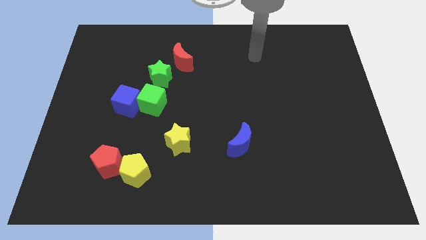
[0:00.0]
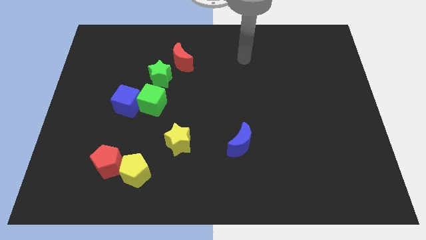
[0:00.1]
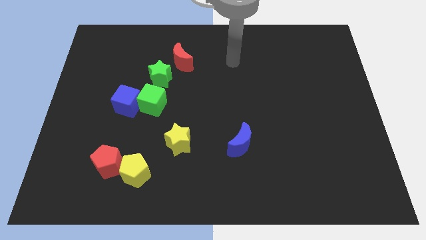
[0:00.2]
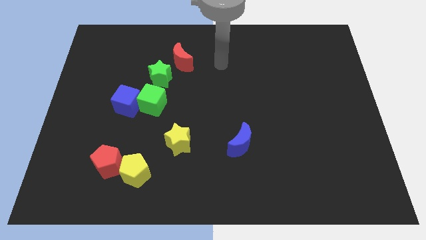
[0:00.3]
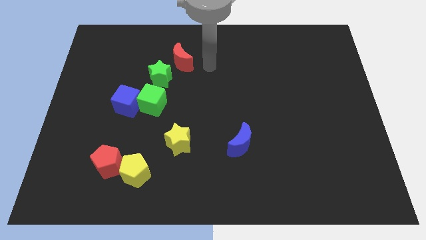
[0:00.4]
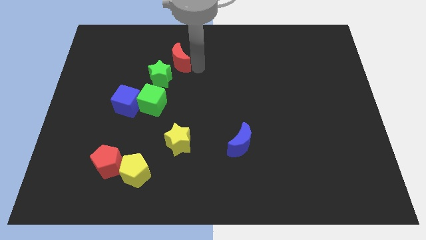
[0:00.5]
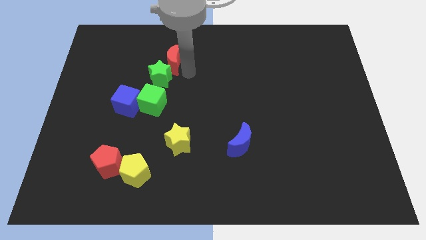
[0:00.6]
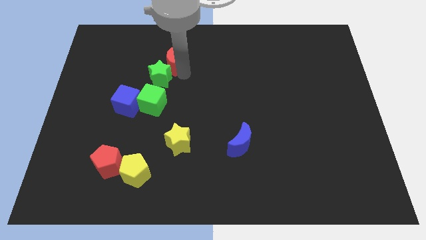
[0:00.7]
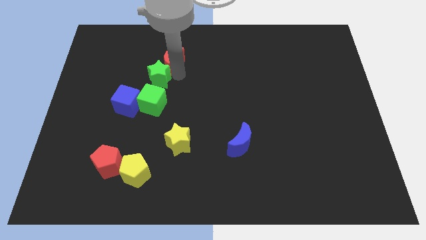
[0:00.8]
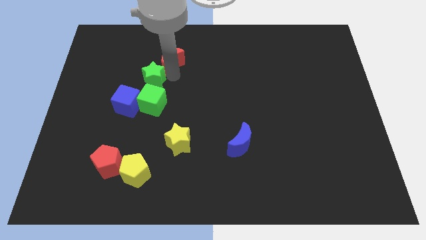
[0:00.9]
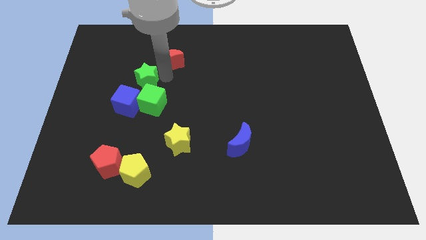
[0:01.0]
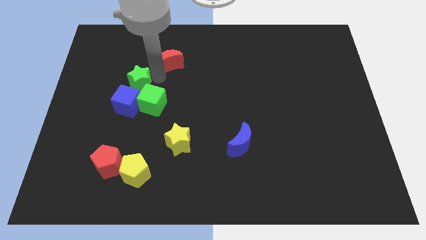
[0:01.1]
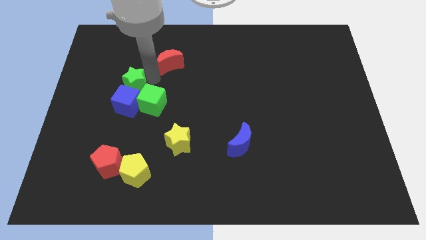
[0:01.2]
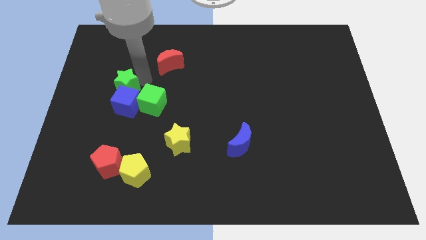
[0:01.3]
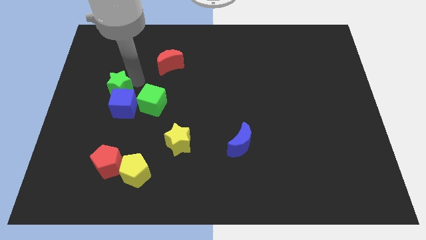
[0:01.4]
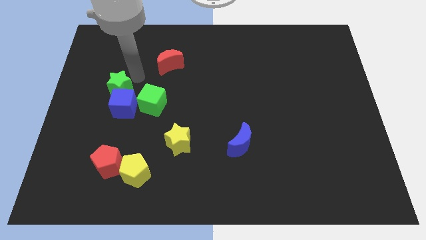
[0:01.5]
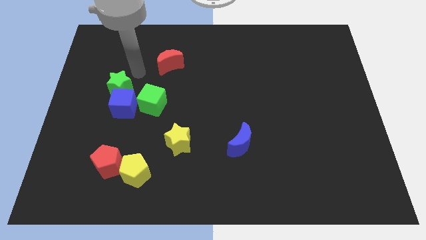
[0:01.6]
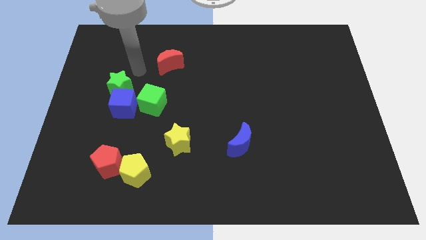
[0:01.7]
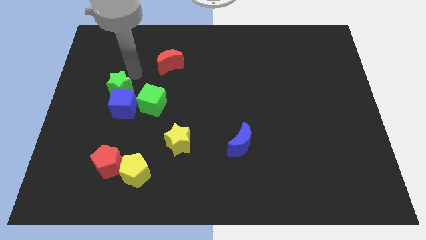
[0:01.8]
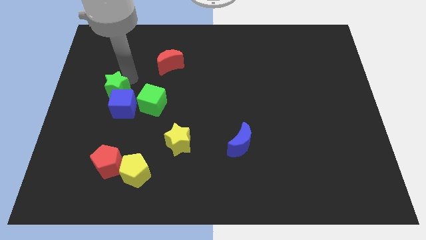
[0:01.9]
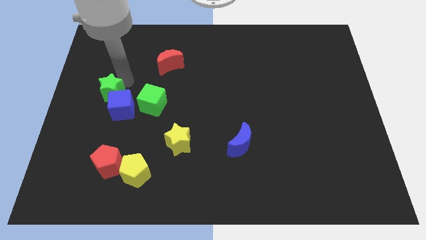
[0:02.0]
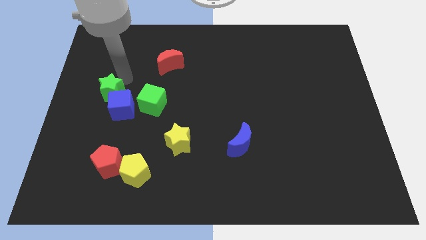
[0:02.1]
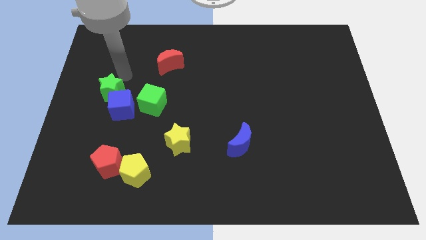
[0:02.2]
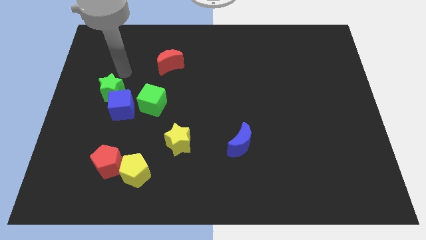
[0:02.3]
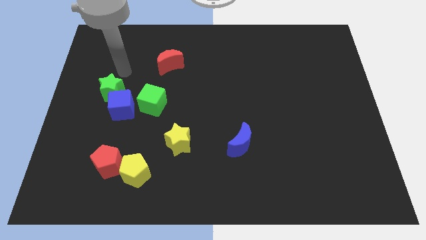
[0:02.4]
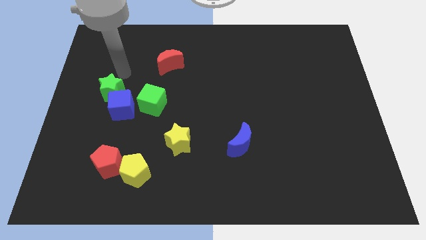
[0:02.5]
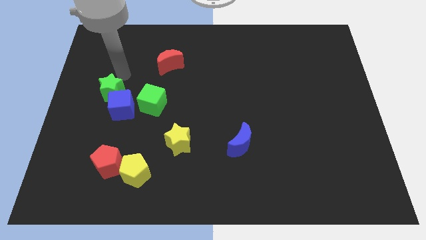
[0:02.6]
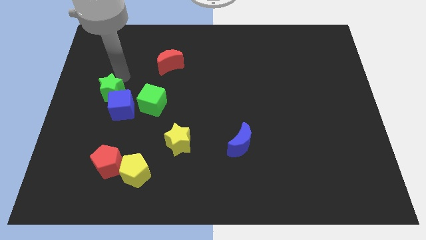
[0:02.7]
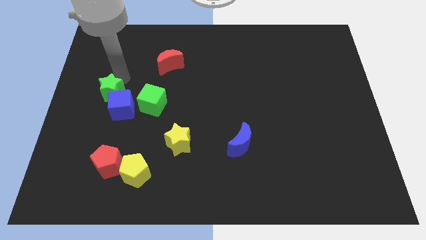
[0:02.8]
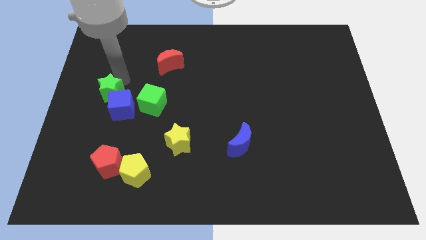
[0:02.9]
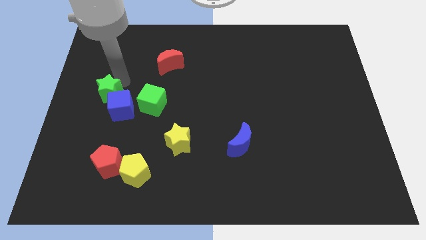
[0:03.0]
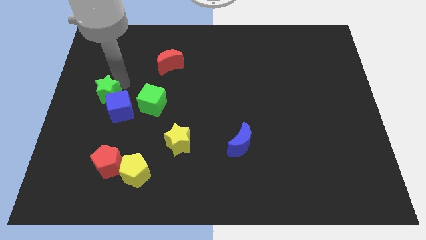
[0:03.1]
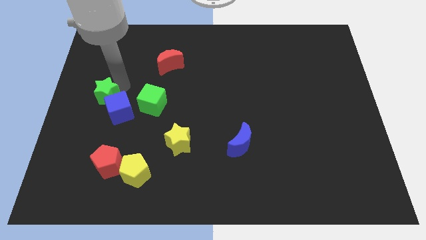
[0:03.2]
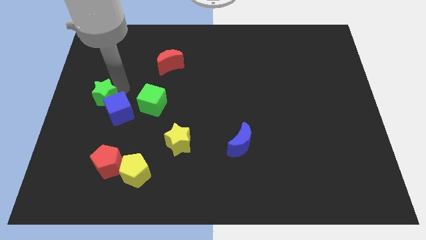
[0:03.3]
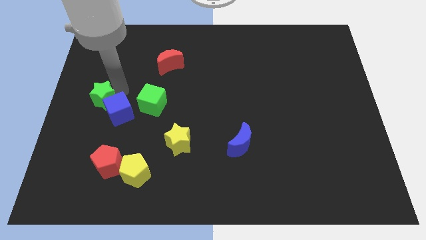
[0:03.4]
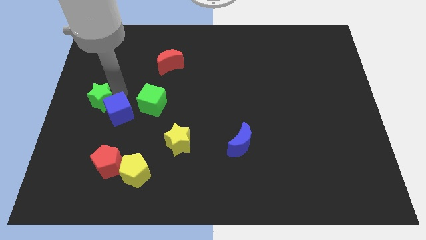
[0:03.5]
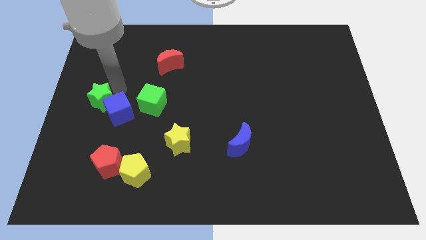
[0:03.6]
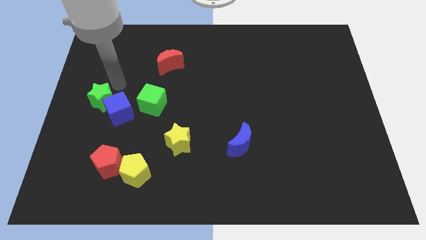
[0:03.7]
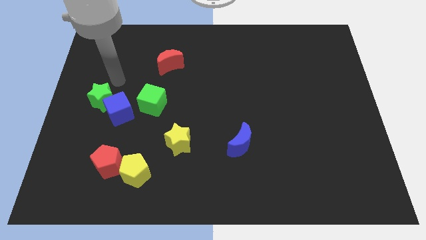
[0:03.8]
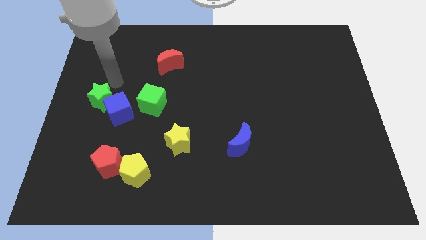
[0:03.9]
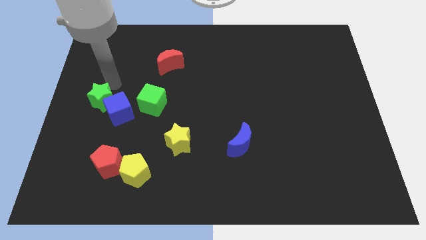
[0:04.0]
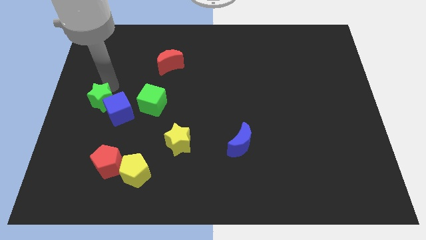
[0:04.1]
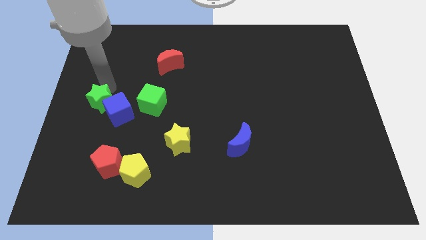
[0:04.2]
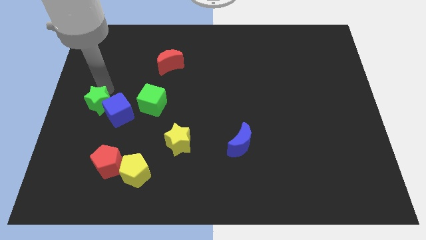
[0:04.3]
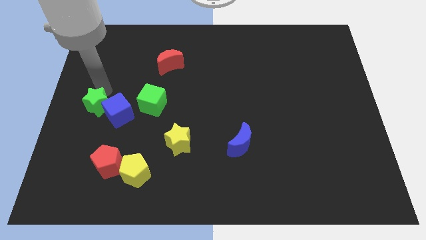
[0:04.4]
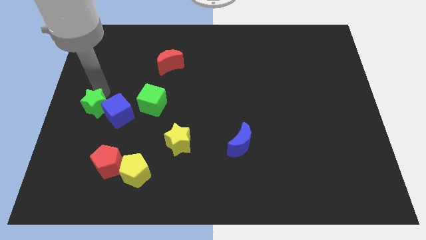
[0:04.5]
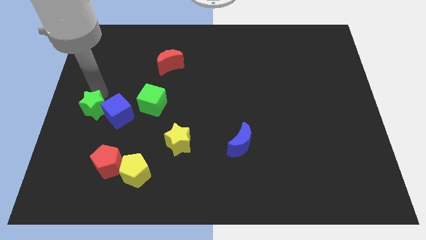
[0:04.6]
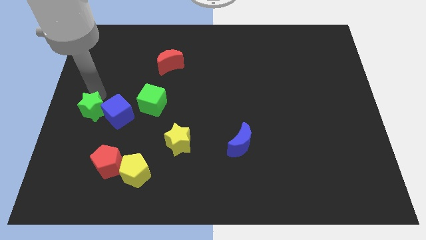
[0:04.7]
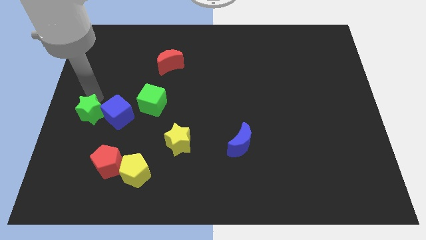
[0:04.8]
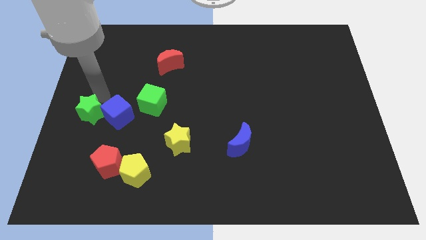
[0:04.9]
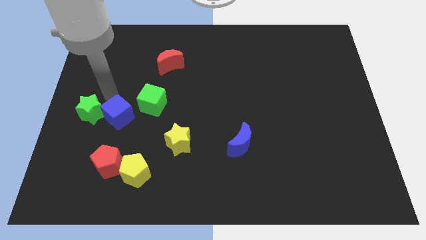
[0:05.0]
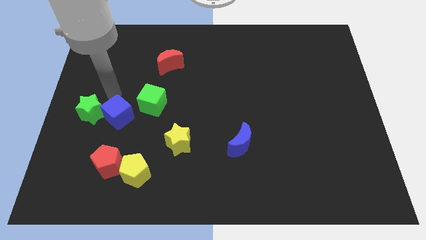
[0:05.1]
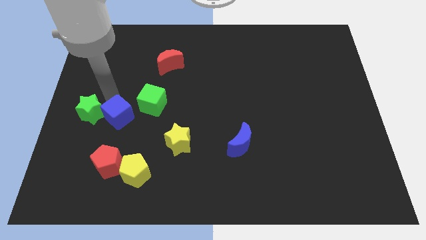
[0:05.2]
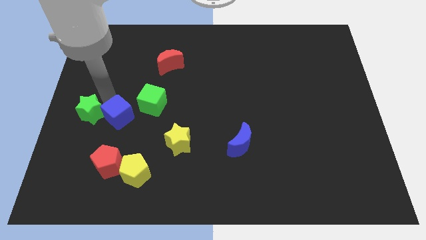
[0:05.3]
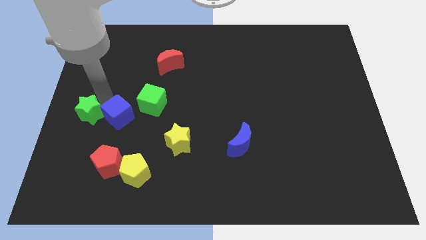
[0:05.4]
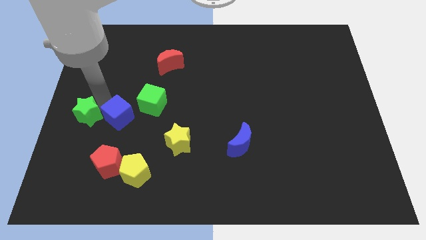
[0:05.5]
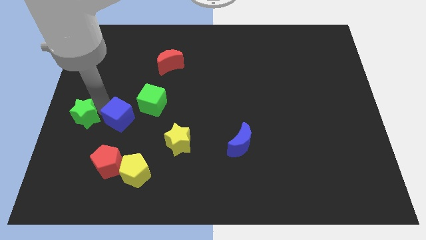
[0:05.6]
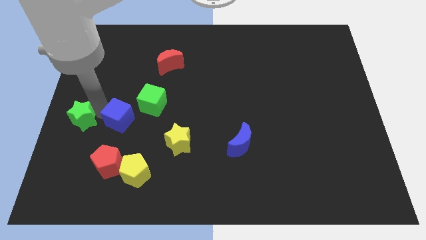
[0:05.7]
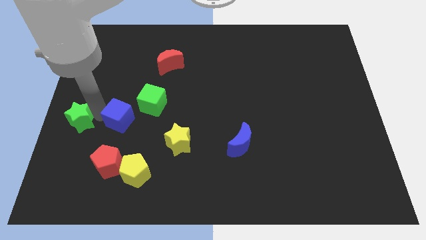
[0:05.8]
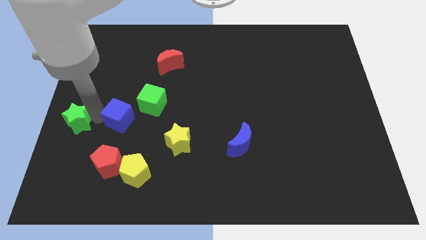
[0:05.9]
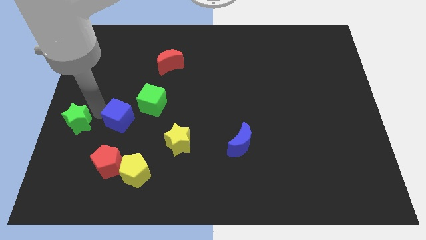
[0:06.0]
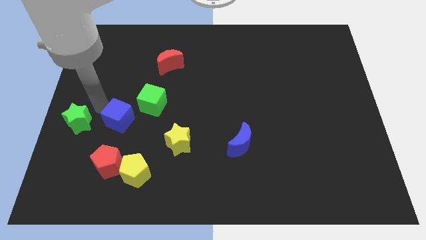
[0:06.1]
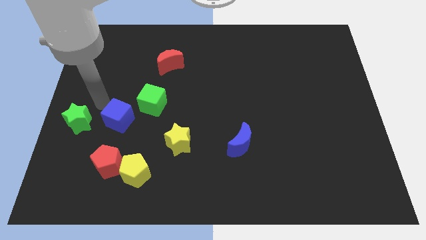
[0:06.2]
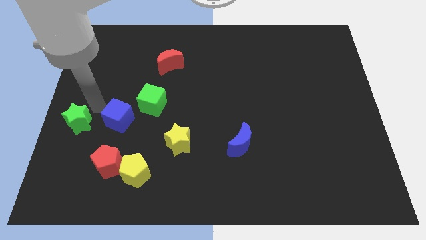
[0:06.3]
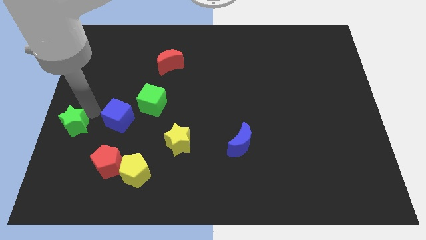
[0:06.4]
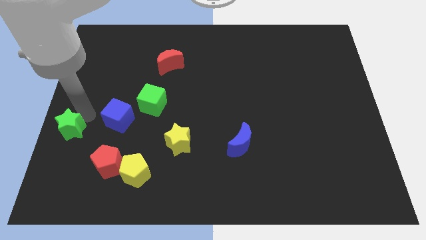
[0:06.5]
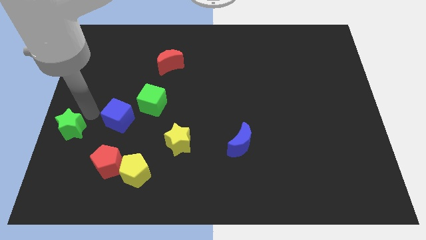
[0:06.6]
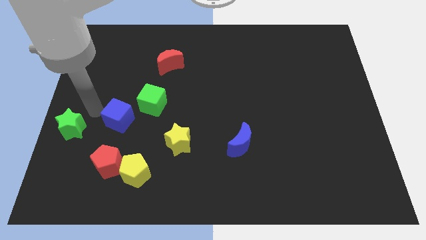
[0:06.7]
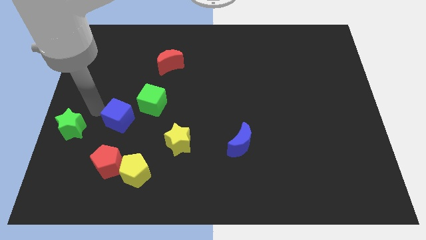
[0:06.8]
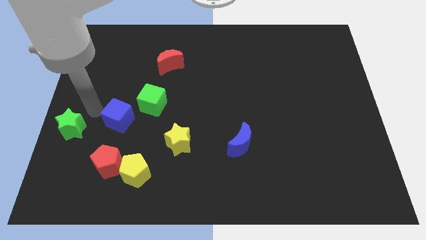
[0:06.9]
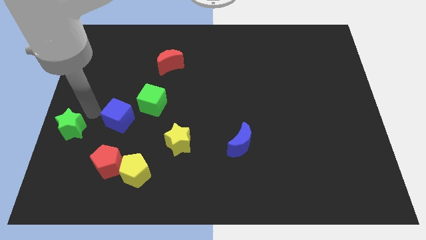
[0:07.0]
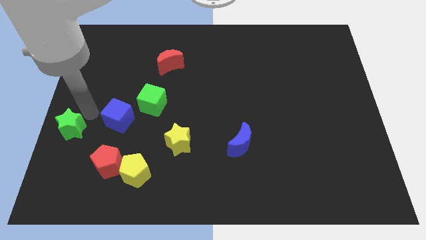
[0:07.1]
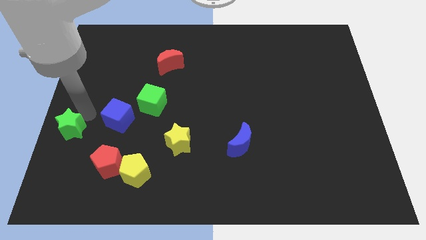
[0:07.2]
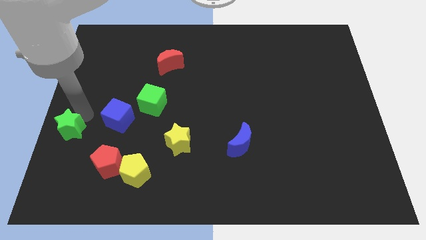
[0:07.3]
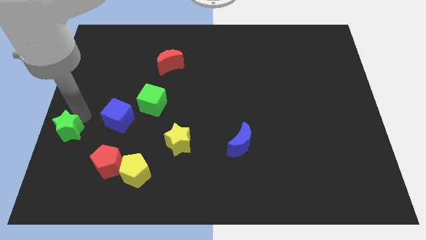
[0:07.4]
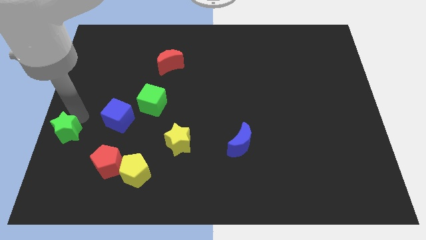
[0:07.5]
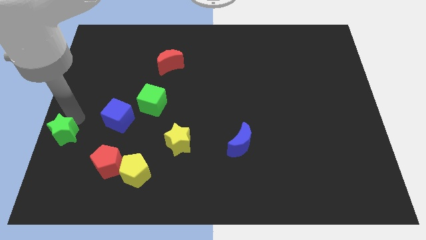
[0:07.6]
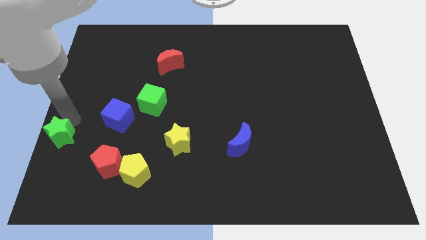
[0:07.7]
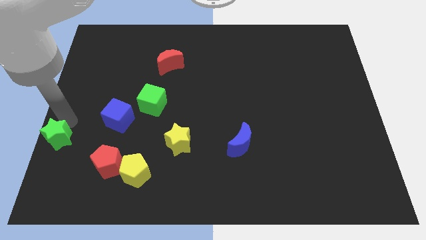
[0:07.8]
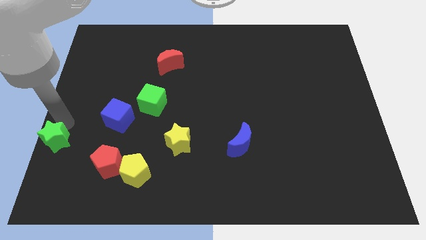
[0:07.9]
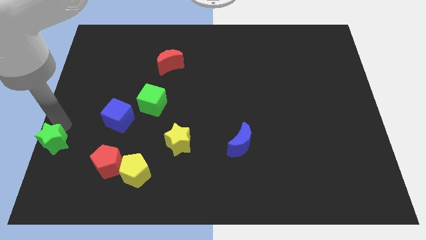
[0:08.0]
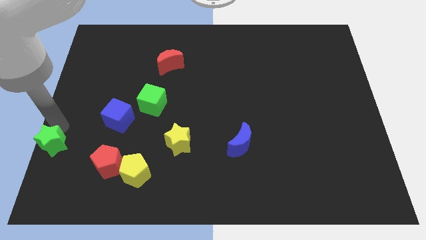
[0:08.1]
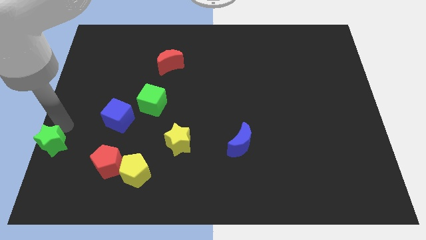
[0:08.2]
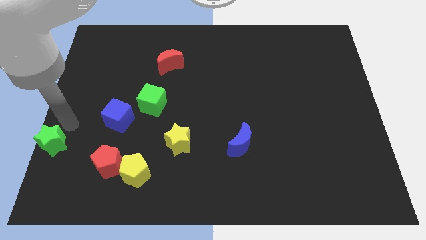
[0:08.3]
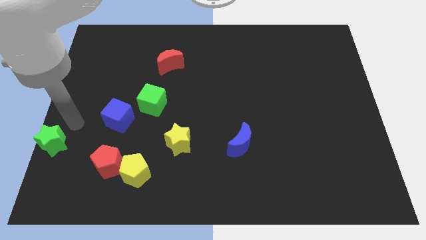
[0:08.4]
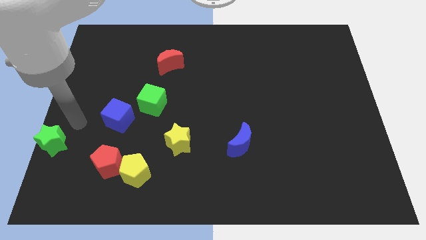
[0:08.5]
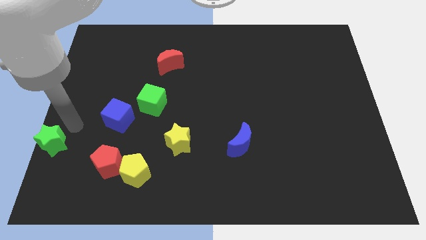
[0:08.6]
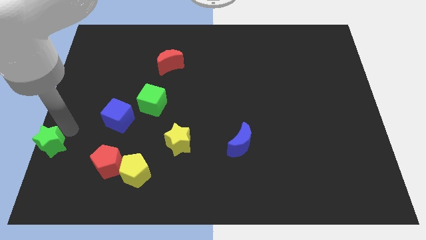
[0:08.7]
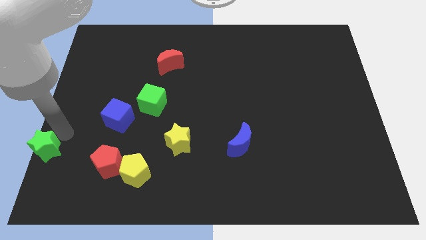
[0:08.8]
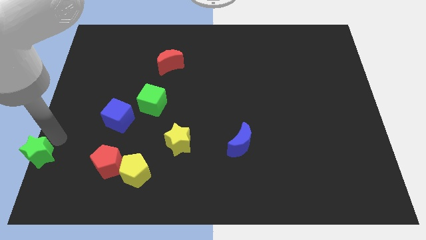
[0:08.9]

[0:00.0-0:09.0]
put the green star to the bottom left of the board
